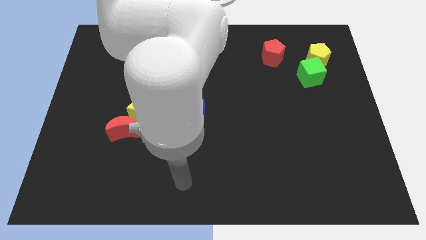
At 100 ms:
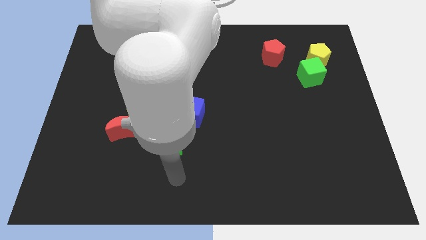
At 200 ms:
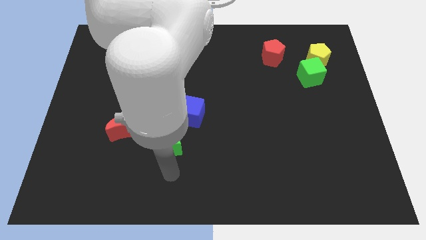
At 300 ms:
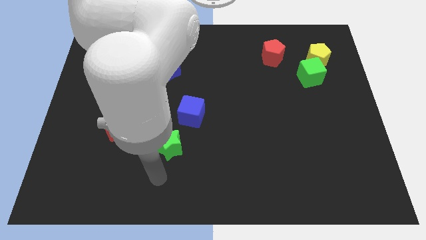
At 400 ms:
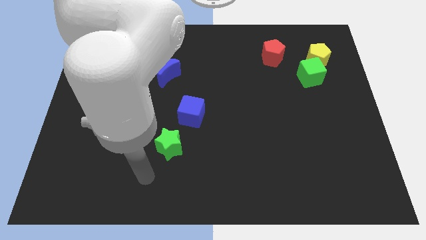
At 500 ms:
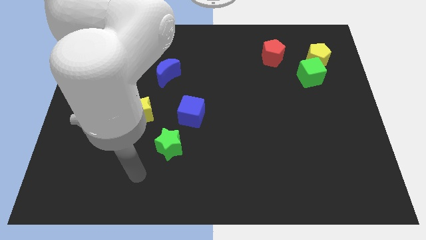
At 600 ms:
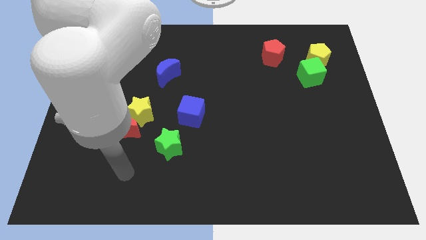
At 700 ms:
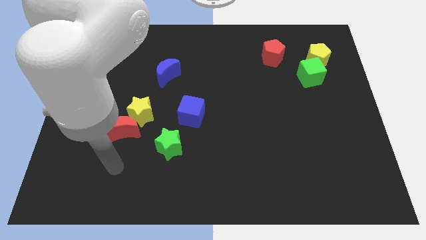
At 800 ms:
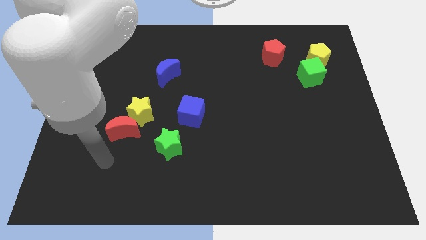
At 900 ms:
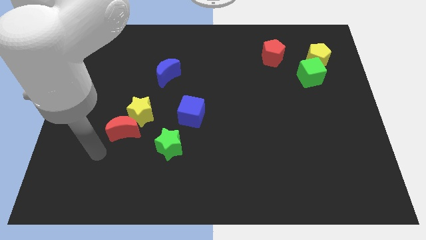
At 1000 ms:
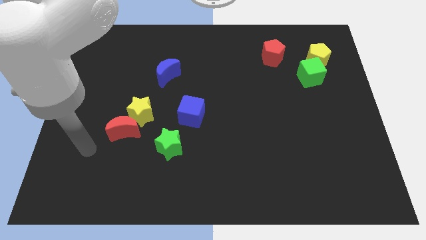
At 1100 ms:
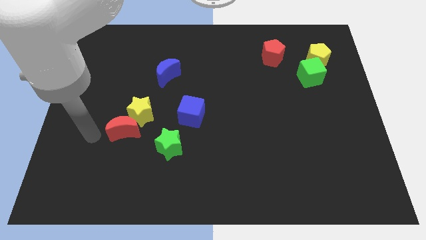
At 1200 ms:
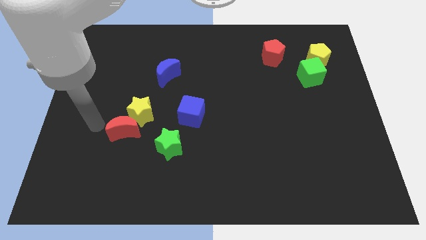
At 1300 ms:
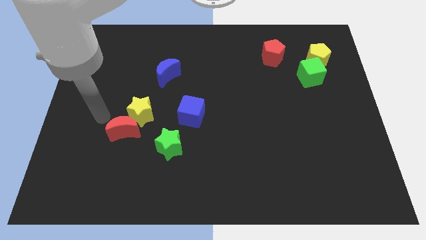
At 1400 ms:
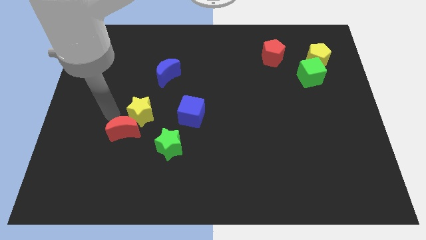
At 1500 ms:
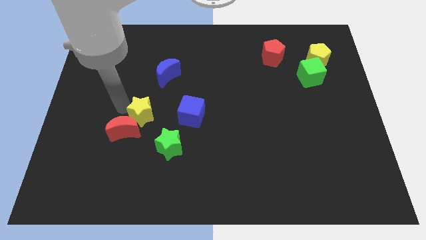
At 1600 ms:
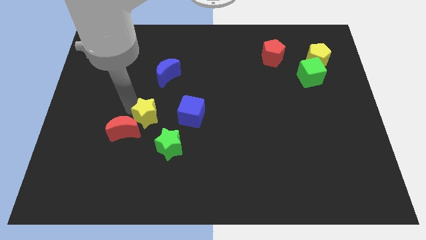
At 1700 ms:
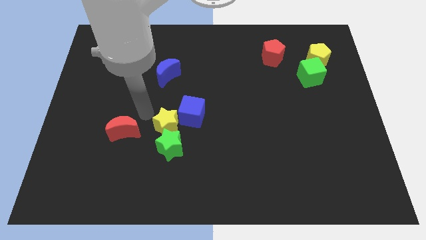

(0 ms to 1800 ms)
pull the red moon apart from the yellow star

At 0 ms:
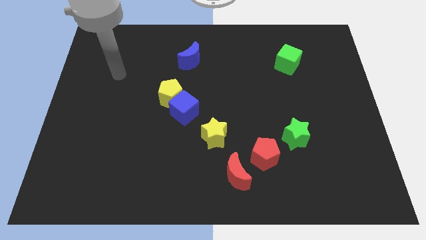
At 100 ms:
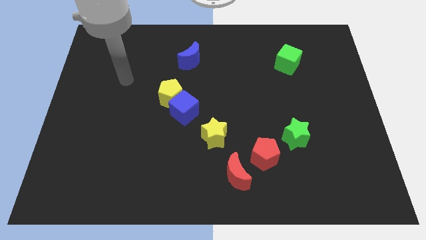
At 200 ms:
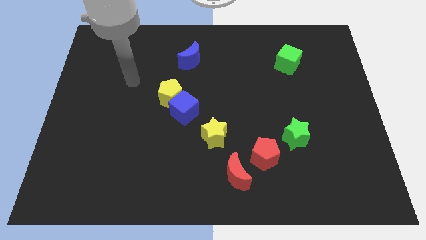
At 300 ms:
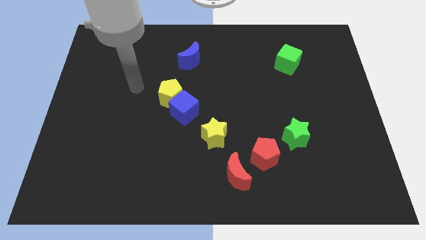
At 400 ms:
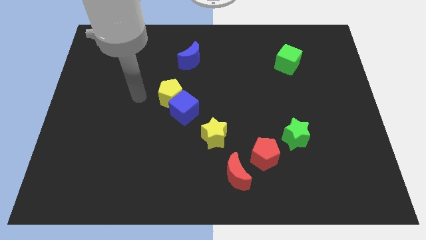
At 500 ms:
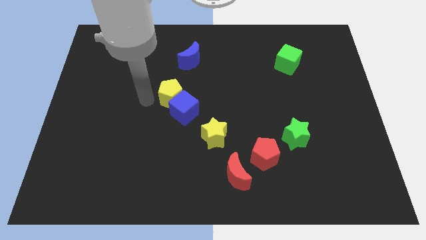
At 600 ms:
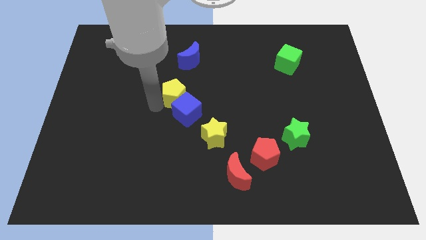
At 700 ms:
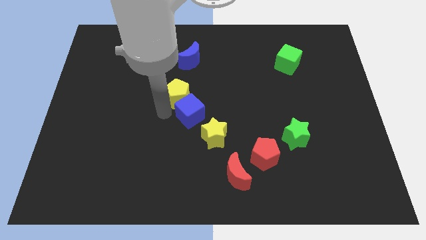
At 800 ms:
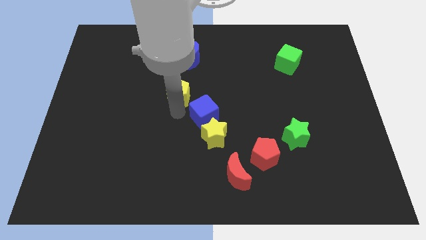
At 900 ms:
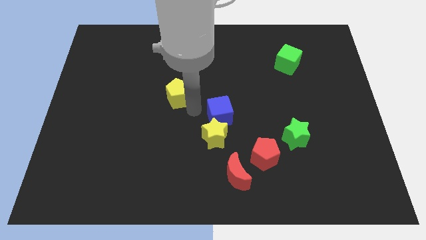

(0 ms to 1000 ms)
pull the yellow pentagon apart from the blue cube

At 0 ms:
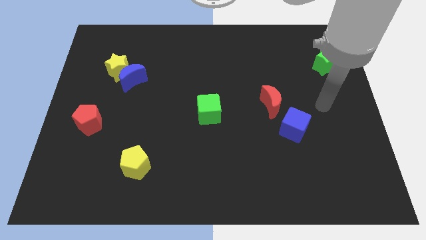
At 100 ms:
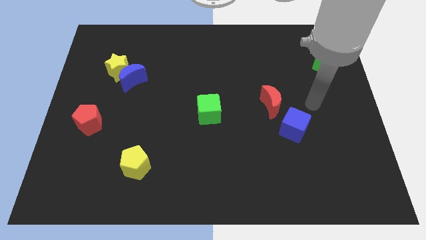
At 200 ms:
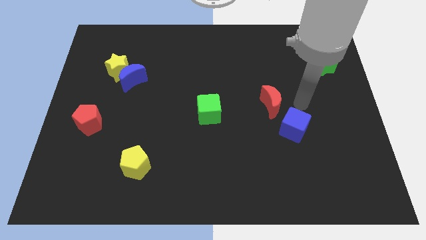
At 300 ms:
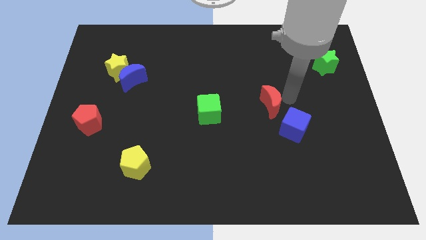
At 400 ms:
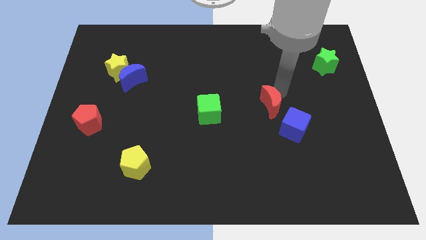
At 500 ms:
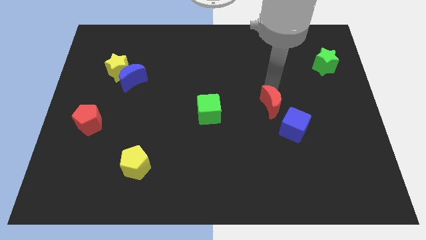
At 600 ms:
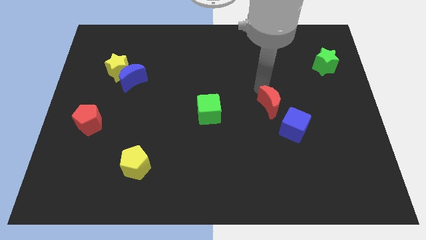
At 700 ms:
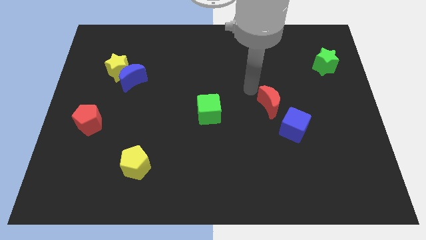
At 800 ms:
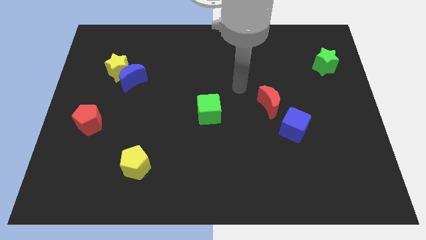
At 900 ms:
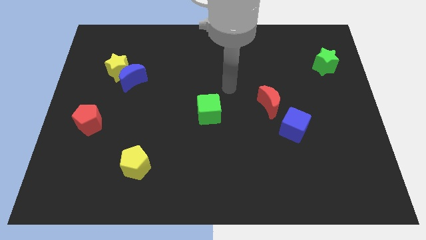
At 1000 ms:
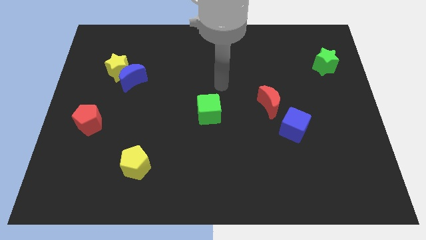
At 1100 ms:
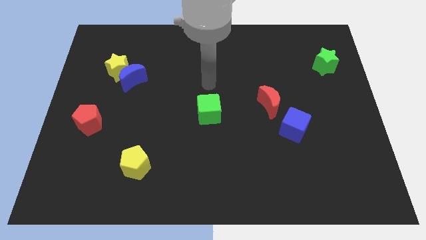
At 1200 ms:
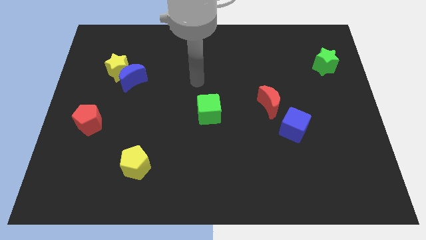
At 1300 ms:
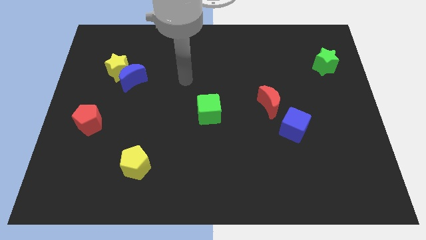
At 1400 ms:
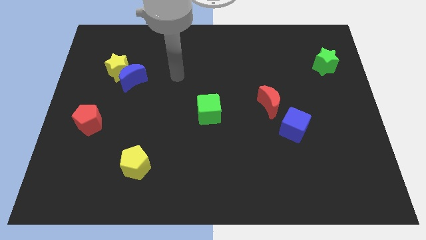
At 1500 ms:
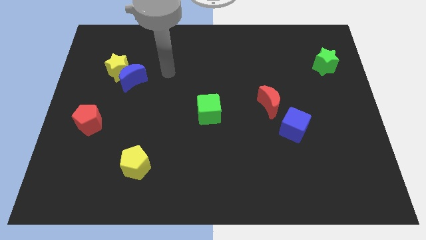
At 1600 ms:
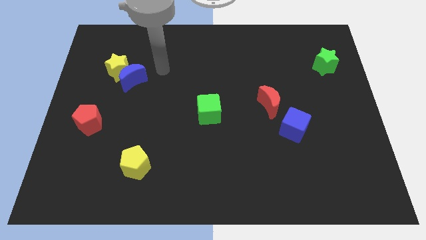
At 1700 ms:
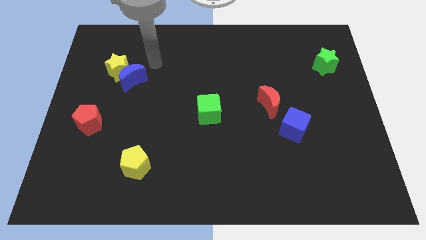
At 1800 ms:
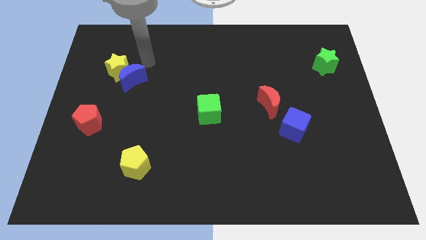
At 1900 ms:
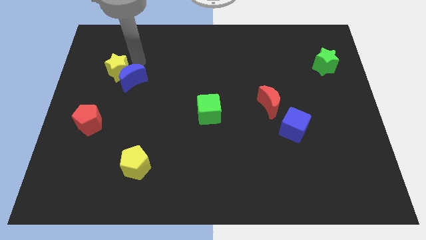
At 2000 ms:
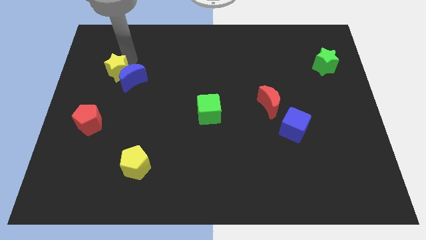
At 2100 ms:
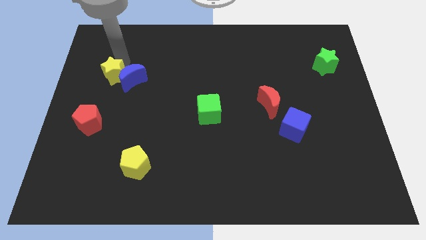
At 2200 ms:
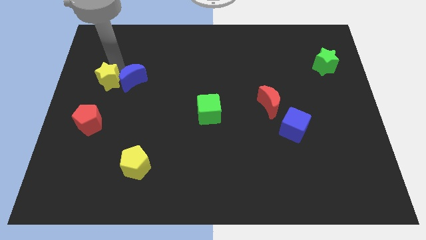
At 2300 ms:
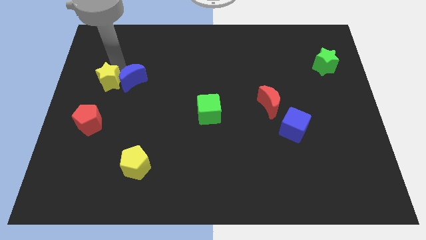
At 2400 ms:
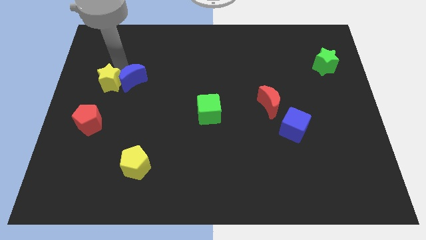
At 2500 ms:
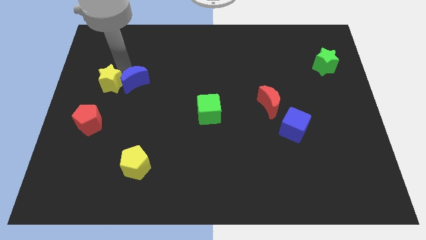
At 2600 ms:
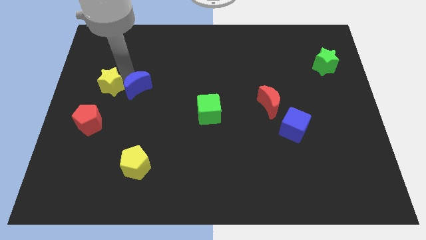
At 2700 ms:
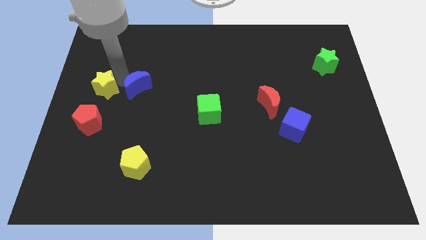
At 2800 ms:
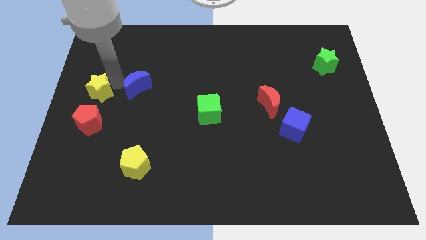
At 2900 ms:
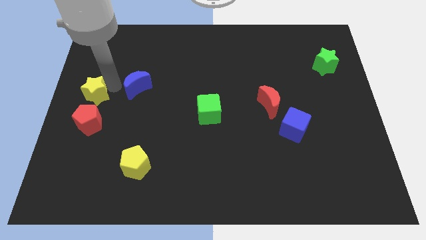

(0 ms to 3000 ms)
move the blue moon away from the yellow star

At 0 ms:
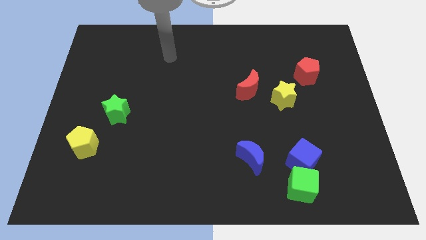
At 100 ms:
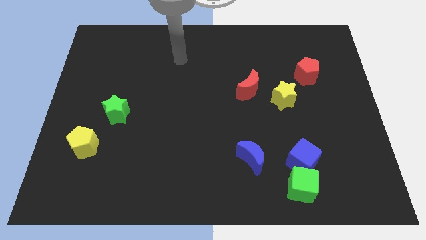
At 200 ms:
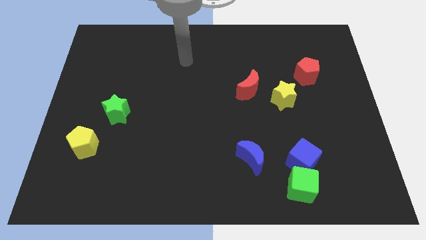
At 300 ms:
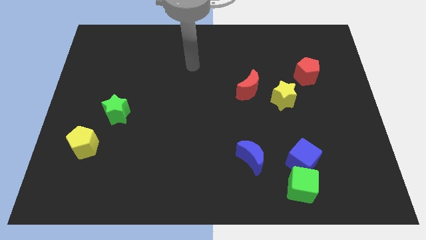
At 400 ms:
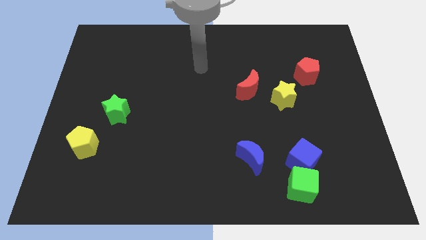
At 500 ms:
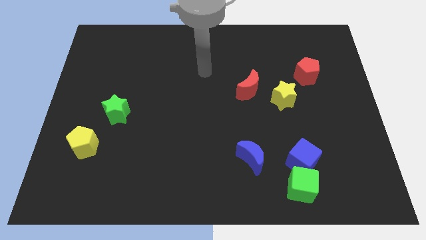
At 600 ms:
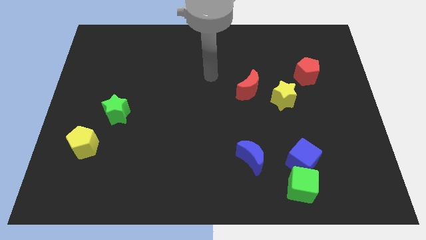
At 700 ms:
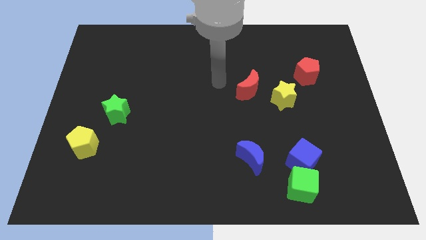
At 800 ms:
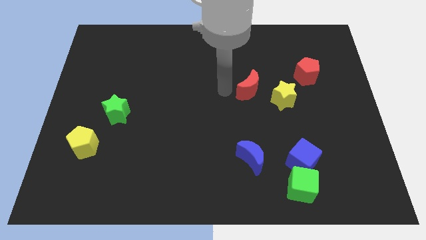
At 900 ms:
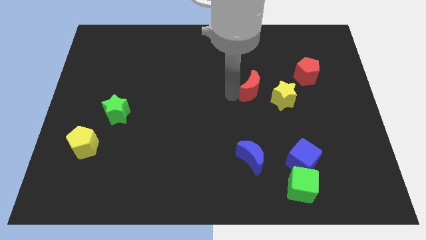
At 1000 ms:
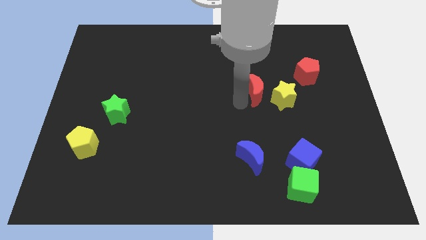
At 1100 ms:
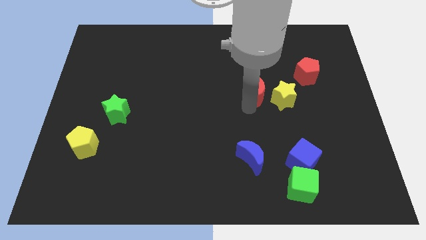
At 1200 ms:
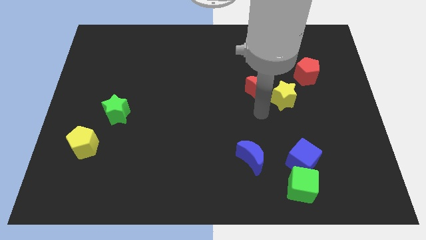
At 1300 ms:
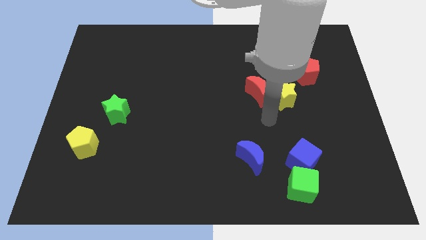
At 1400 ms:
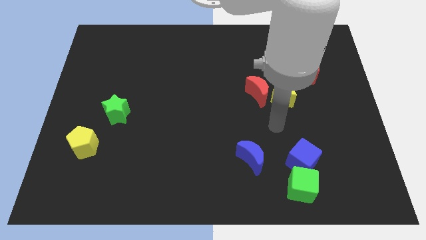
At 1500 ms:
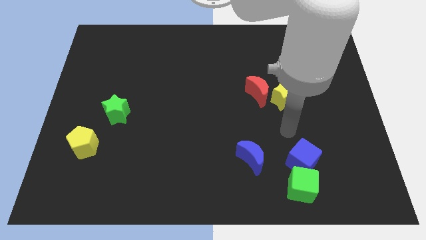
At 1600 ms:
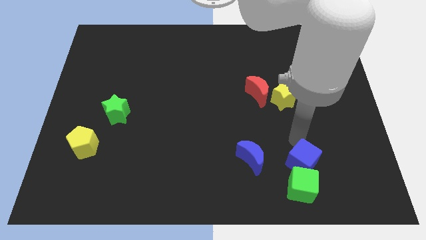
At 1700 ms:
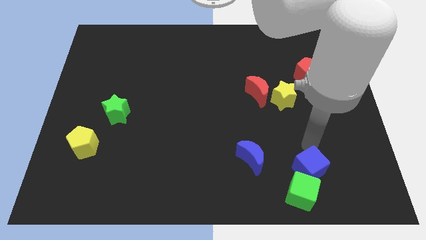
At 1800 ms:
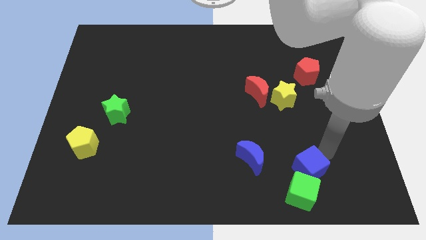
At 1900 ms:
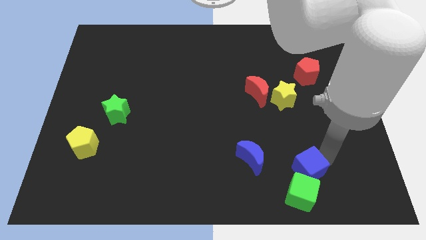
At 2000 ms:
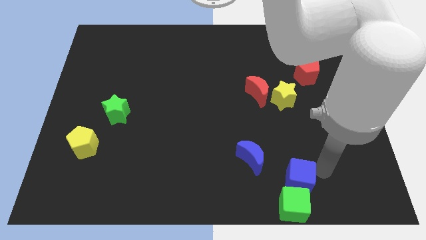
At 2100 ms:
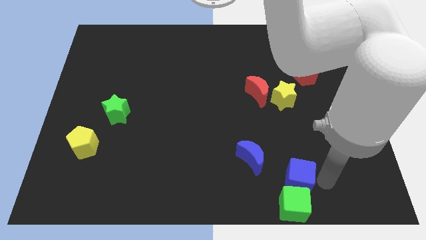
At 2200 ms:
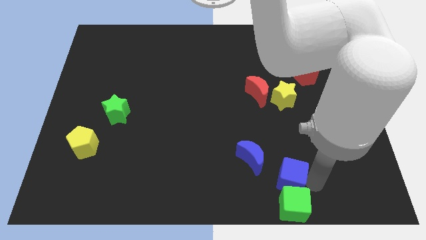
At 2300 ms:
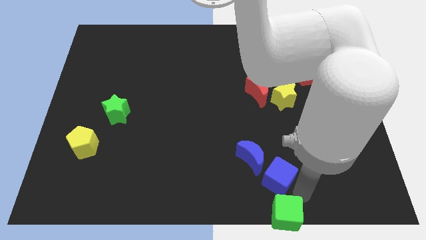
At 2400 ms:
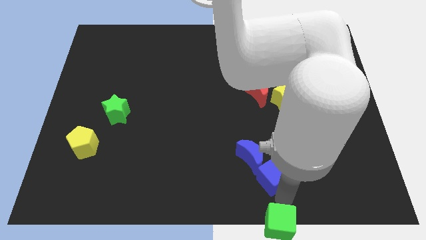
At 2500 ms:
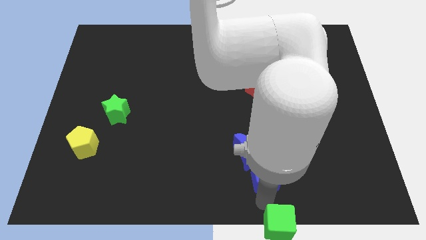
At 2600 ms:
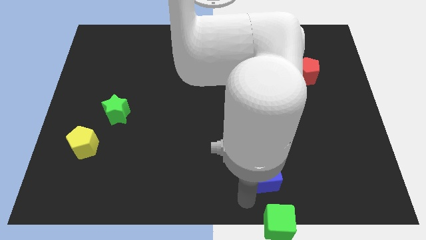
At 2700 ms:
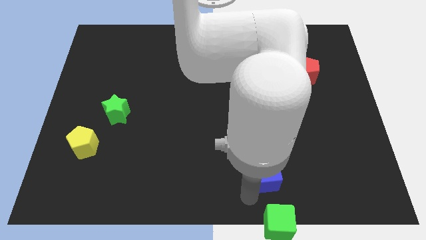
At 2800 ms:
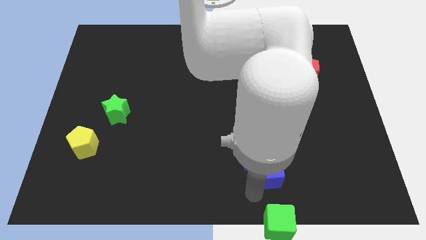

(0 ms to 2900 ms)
separate the blue cube from the green cube

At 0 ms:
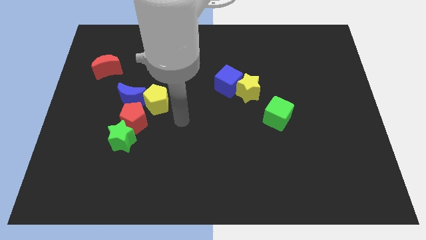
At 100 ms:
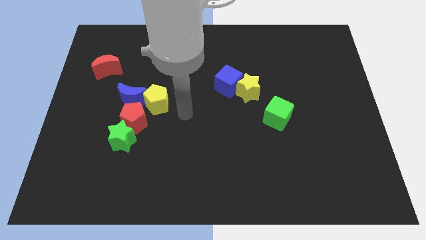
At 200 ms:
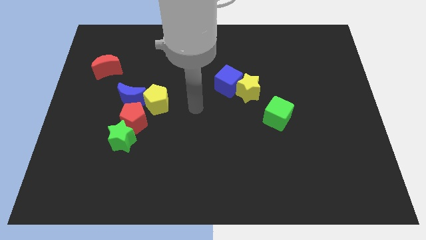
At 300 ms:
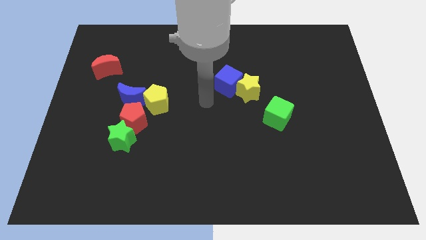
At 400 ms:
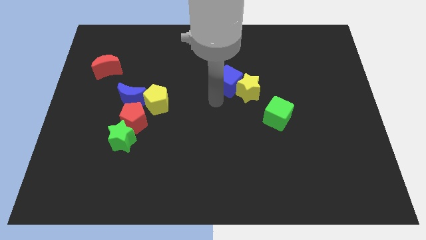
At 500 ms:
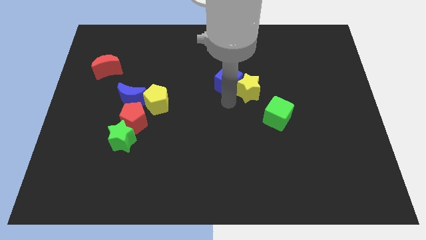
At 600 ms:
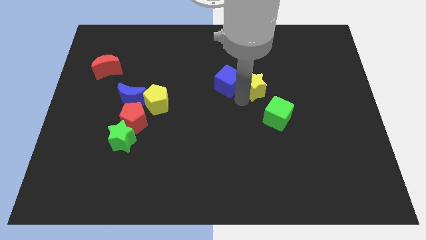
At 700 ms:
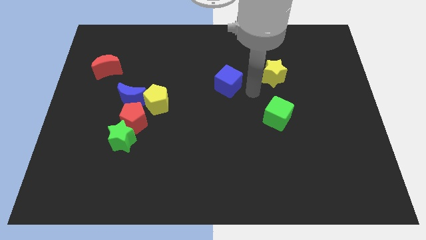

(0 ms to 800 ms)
move the blue cube away from the yellow star
